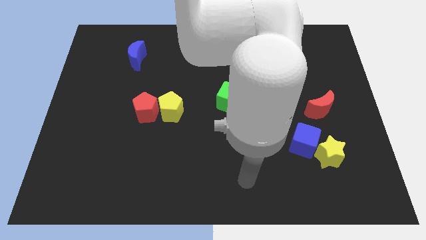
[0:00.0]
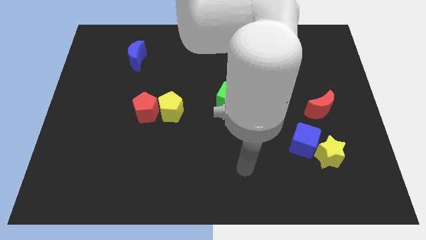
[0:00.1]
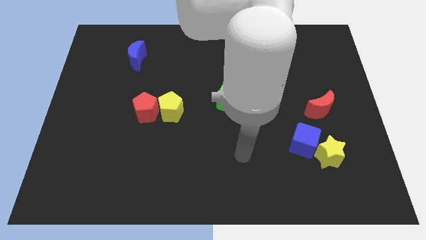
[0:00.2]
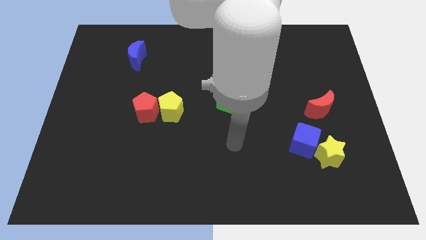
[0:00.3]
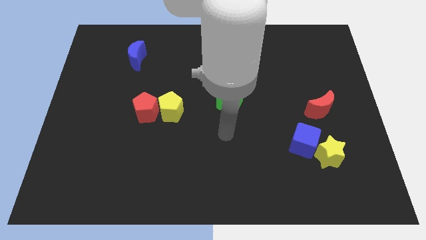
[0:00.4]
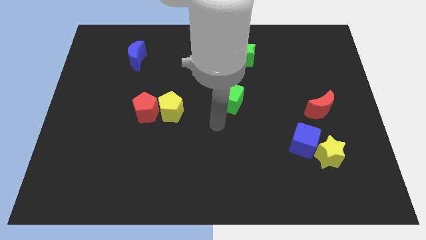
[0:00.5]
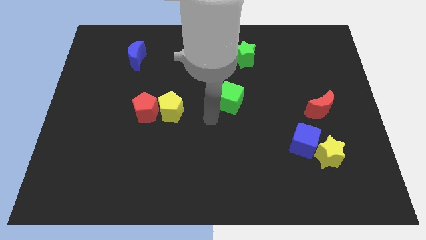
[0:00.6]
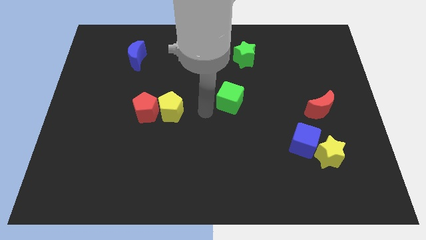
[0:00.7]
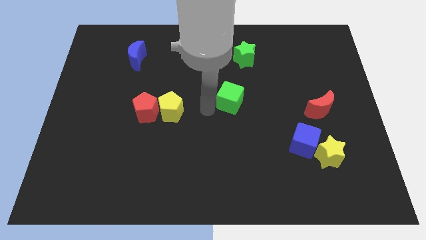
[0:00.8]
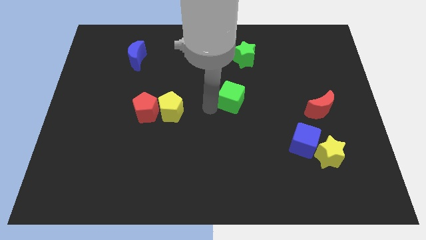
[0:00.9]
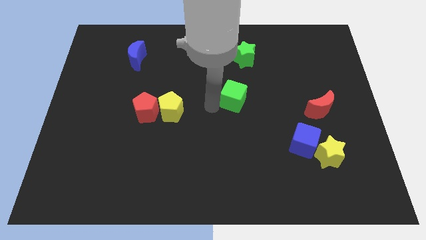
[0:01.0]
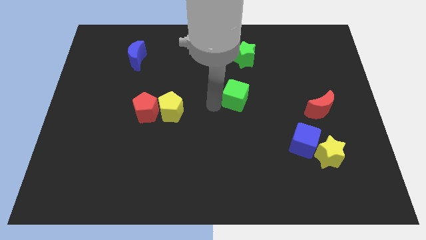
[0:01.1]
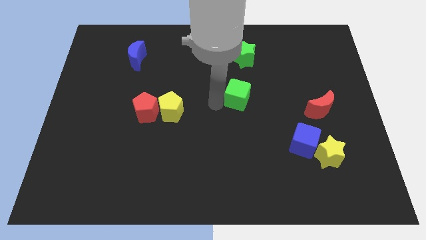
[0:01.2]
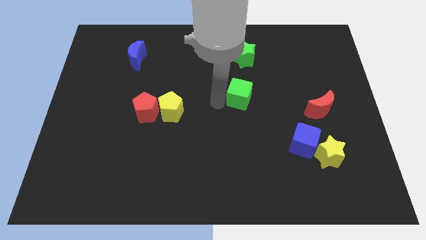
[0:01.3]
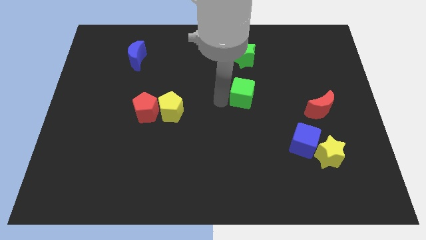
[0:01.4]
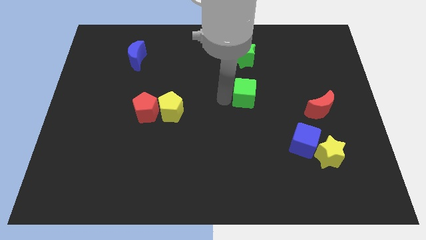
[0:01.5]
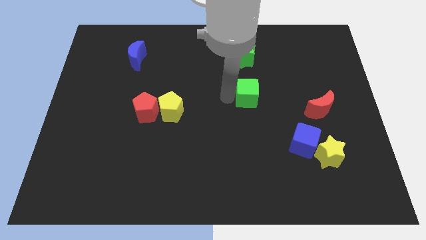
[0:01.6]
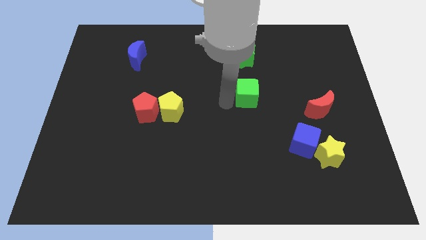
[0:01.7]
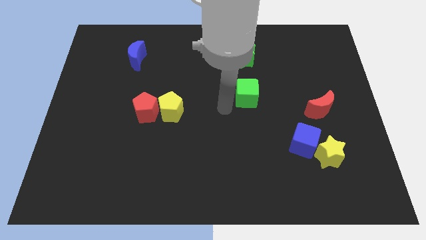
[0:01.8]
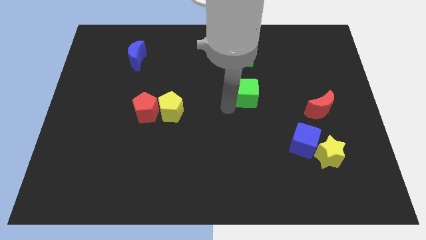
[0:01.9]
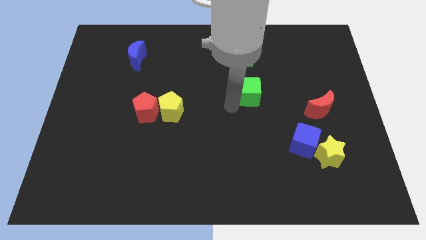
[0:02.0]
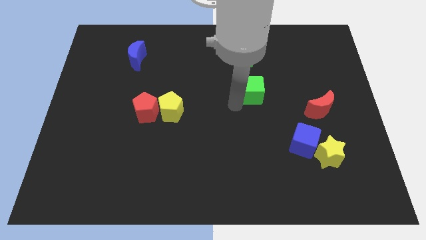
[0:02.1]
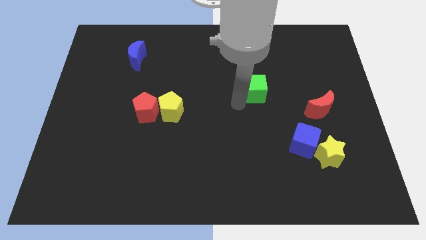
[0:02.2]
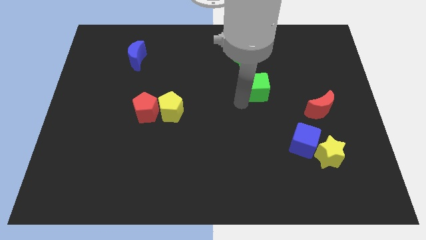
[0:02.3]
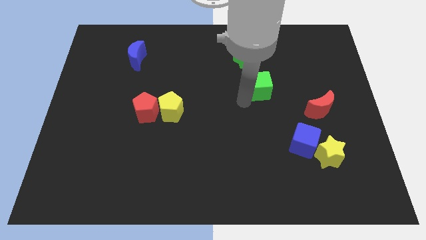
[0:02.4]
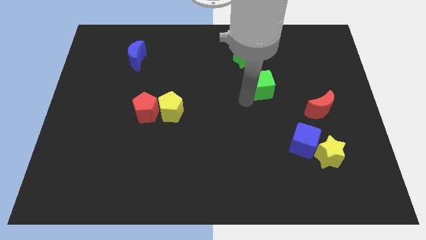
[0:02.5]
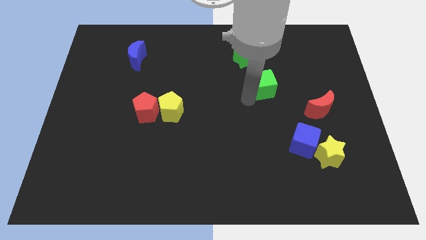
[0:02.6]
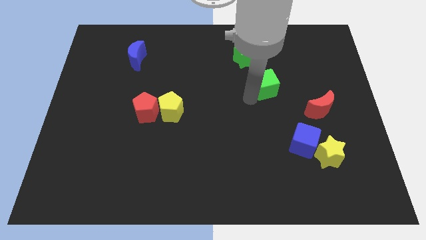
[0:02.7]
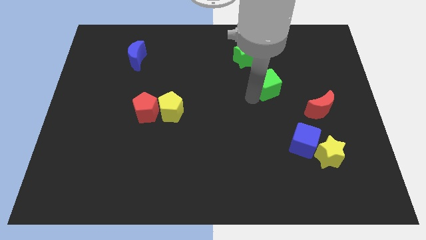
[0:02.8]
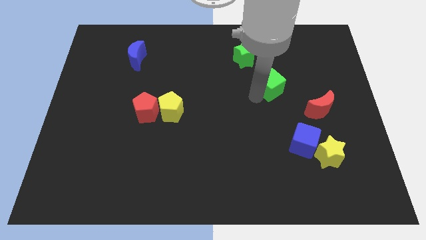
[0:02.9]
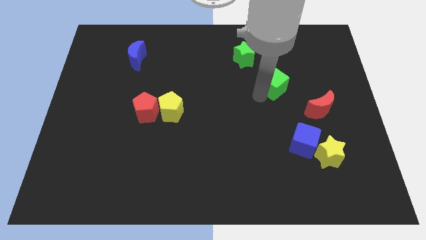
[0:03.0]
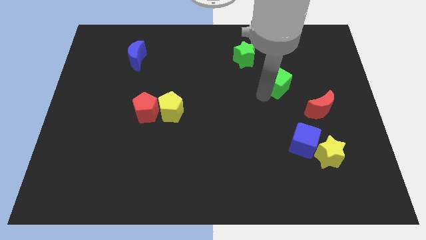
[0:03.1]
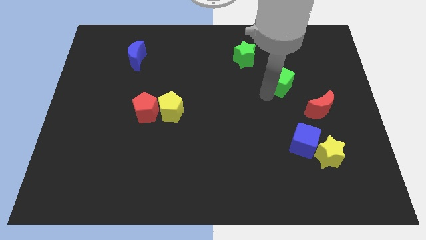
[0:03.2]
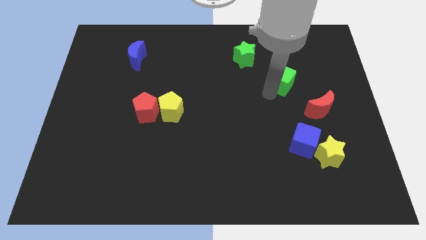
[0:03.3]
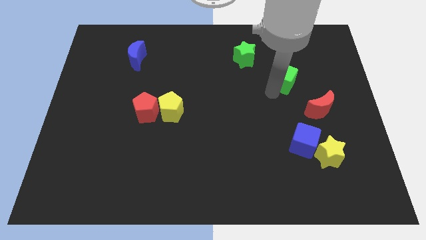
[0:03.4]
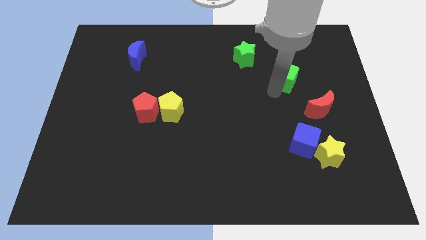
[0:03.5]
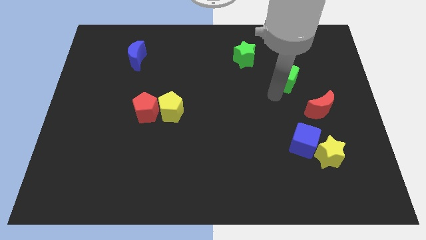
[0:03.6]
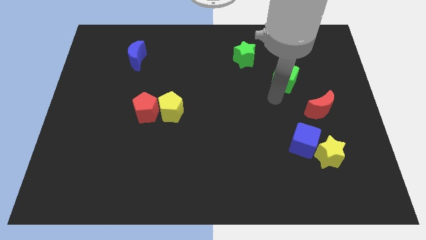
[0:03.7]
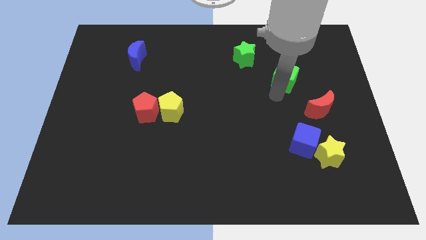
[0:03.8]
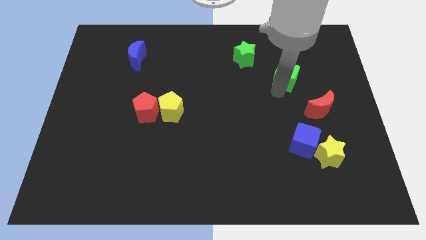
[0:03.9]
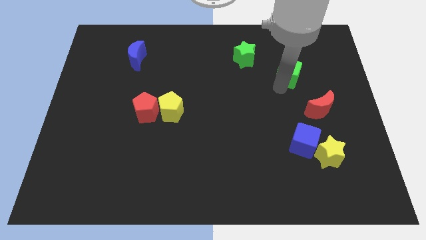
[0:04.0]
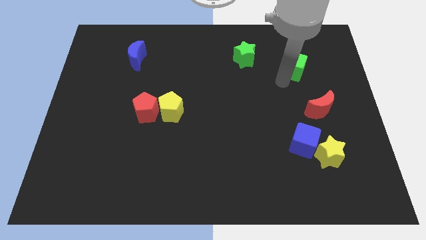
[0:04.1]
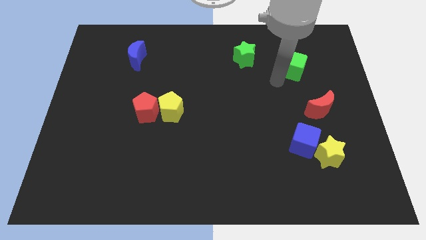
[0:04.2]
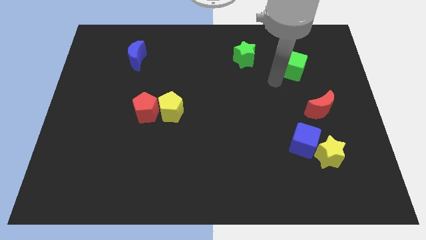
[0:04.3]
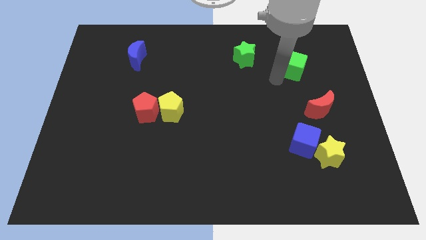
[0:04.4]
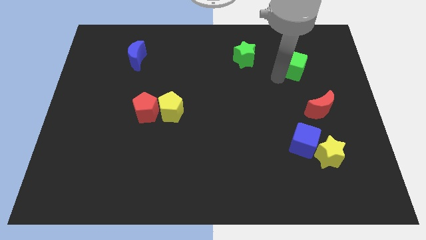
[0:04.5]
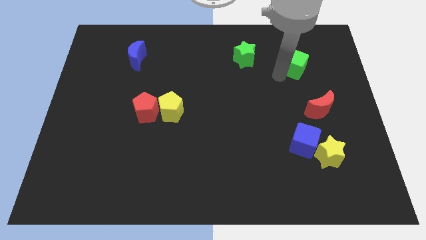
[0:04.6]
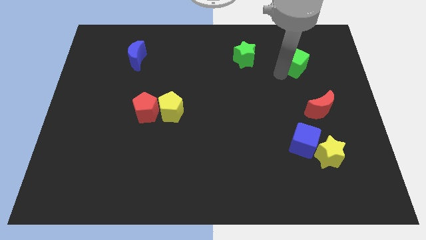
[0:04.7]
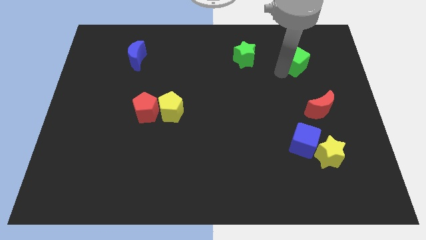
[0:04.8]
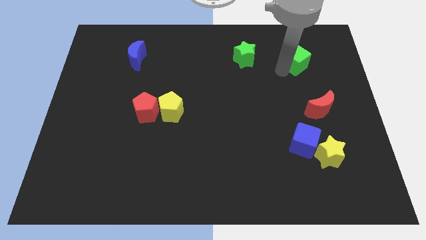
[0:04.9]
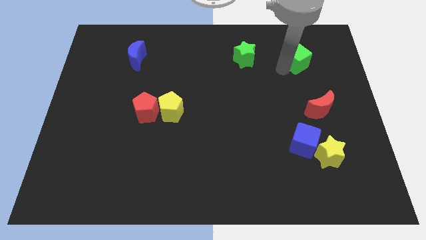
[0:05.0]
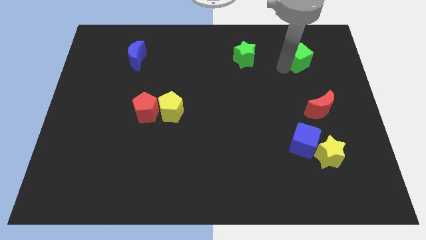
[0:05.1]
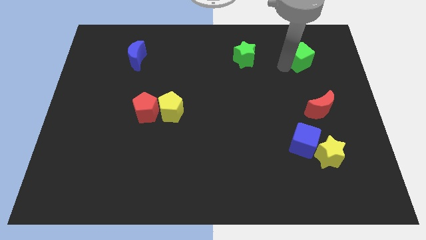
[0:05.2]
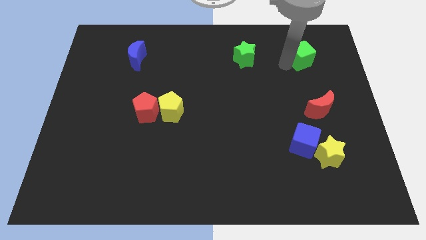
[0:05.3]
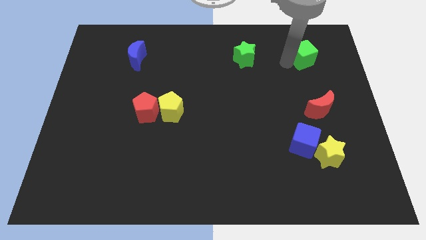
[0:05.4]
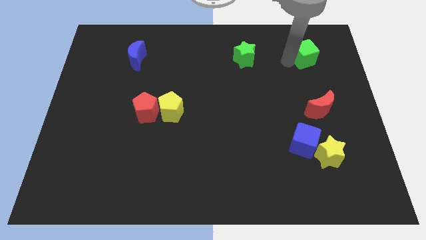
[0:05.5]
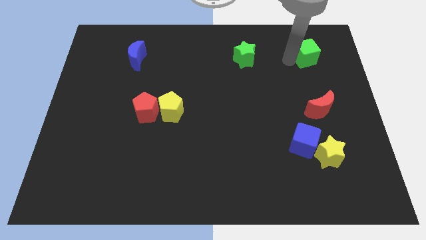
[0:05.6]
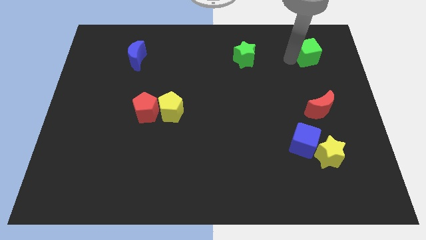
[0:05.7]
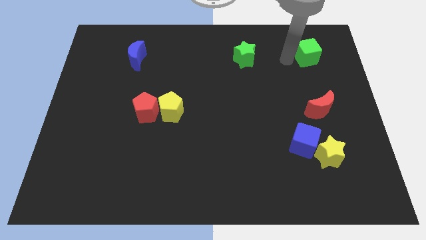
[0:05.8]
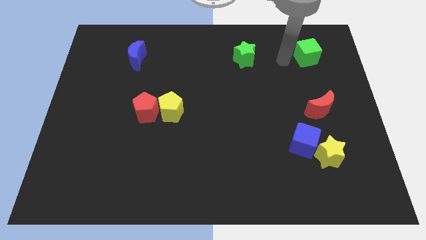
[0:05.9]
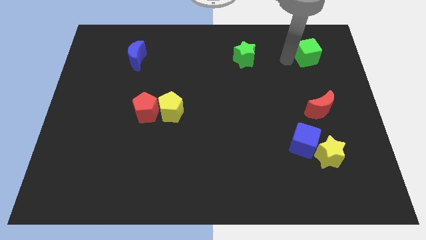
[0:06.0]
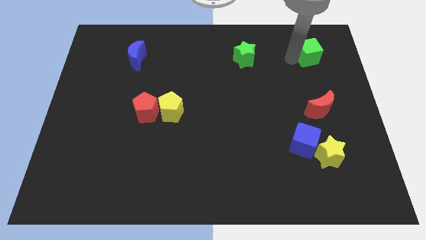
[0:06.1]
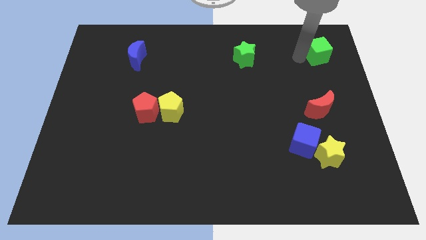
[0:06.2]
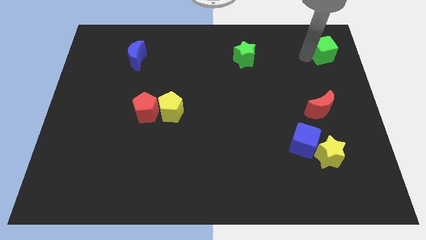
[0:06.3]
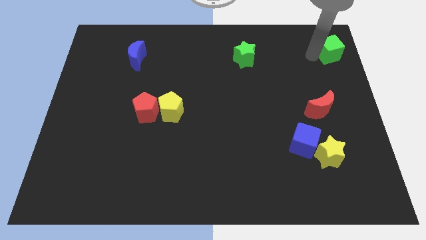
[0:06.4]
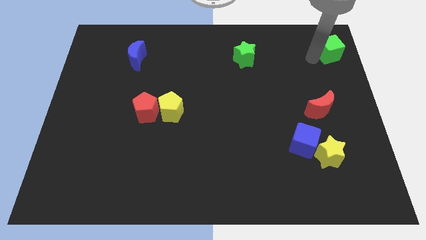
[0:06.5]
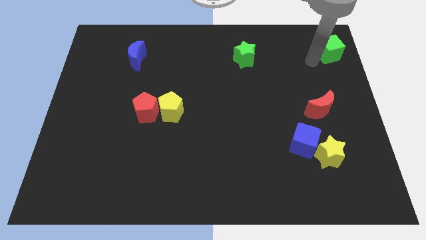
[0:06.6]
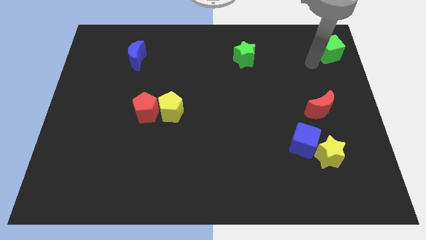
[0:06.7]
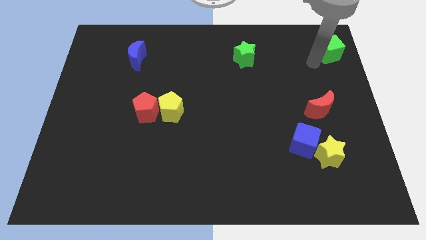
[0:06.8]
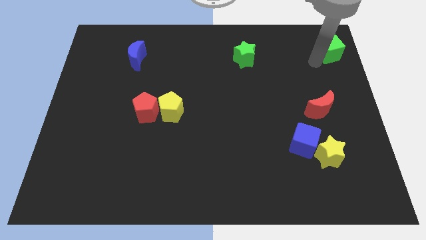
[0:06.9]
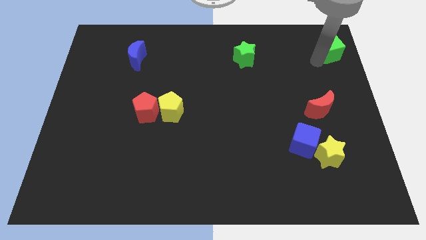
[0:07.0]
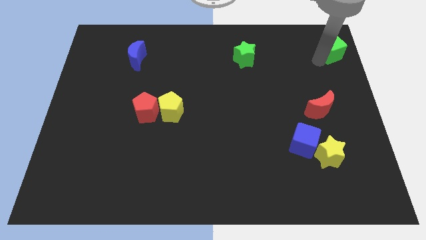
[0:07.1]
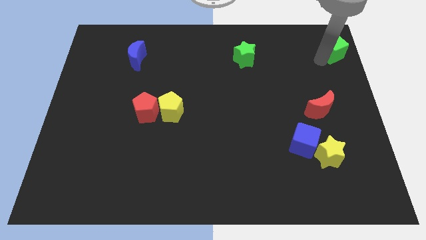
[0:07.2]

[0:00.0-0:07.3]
move the green cube to the top right corner
